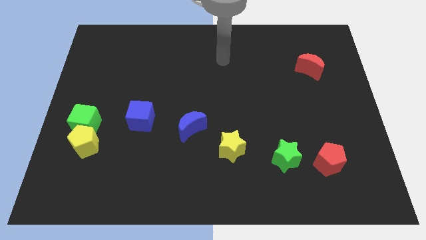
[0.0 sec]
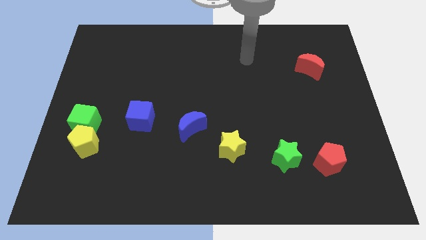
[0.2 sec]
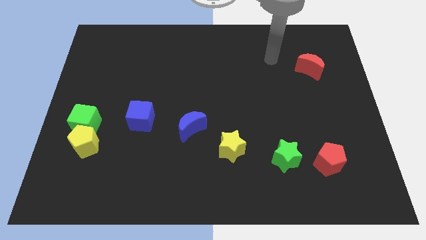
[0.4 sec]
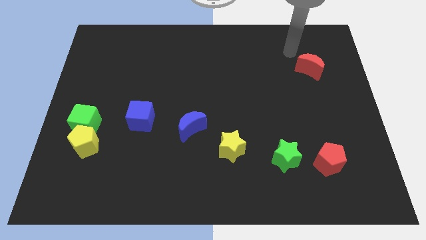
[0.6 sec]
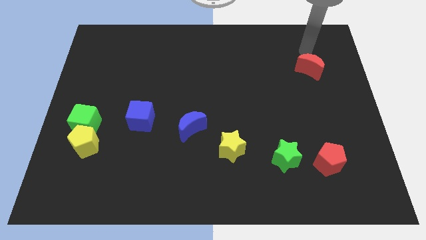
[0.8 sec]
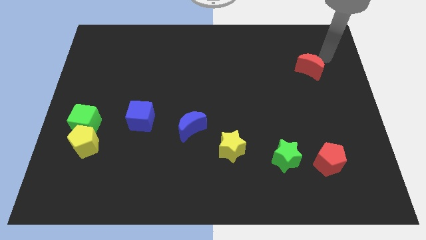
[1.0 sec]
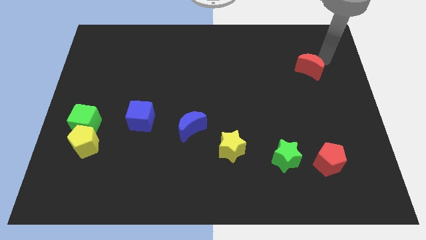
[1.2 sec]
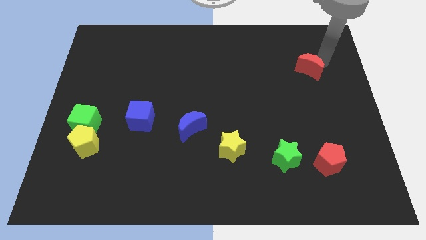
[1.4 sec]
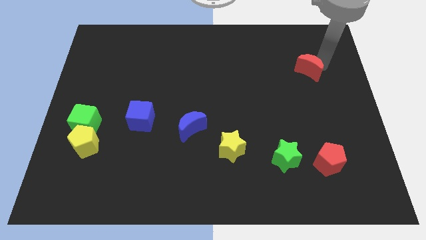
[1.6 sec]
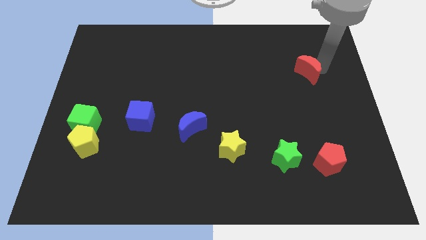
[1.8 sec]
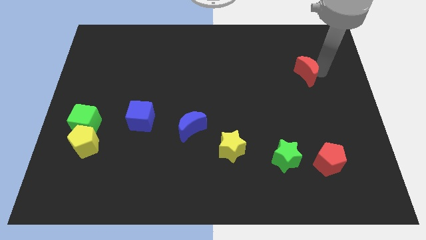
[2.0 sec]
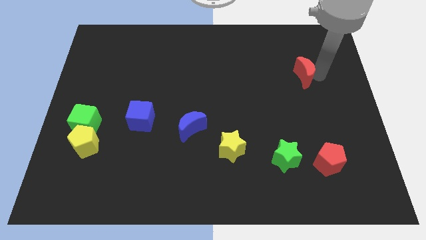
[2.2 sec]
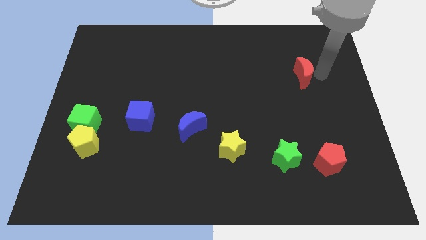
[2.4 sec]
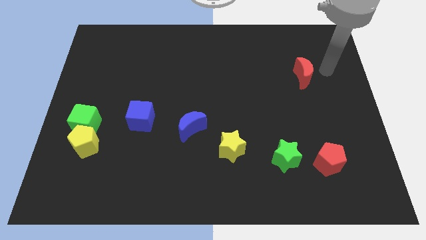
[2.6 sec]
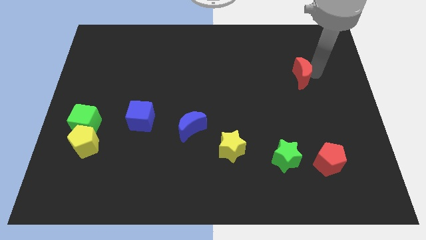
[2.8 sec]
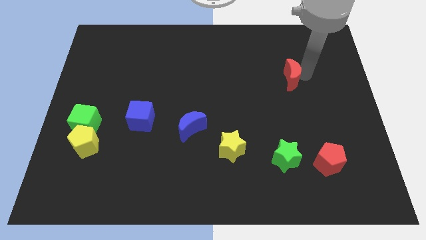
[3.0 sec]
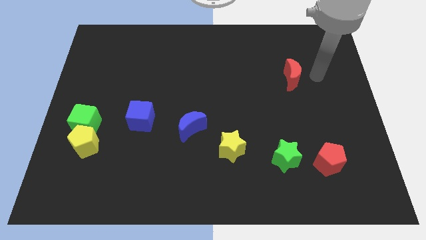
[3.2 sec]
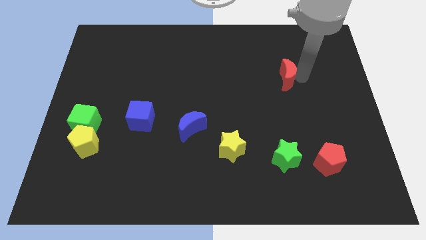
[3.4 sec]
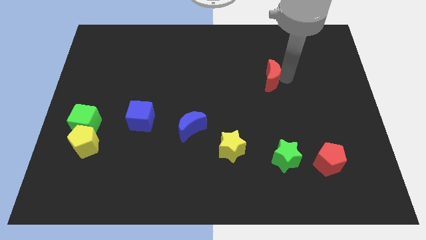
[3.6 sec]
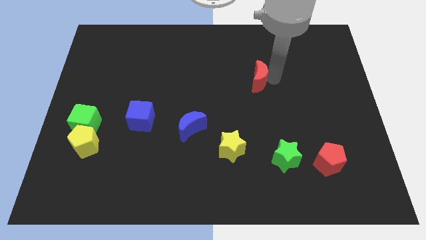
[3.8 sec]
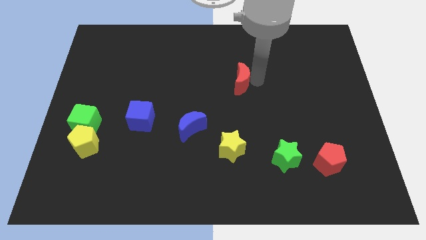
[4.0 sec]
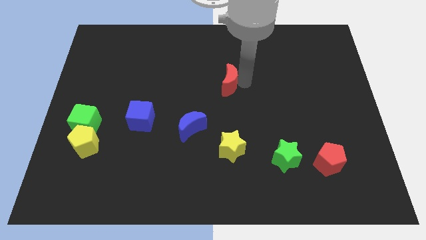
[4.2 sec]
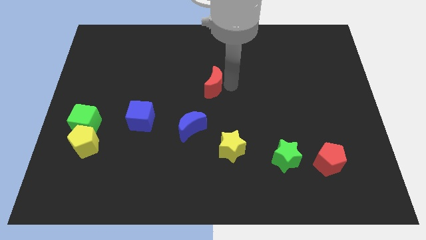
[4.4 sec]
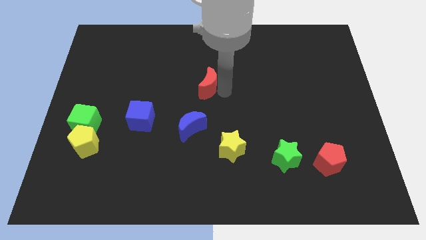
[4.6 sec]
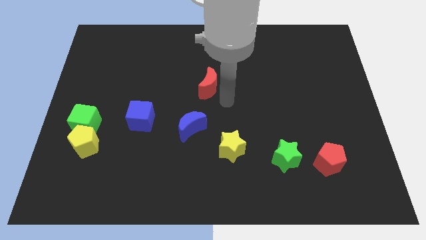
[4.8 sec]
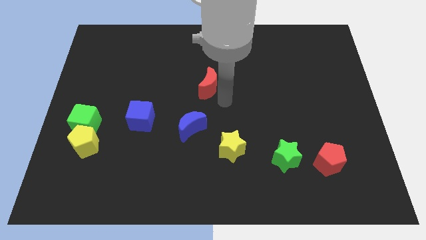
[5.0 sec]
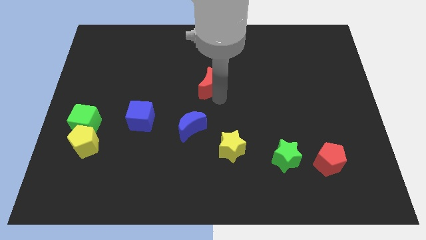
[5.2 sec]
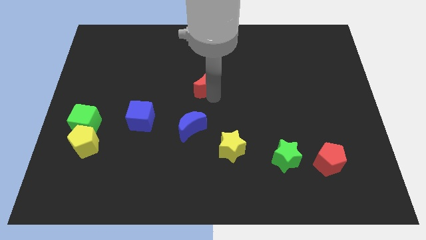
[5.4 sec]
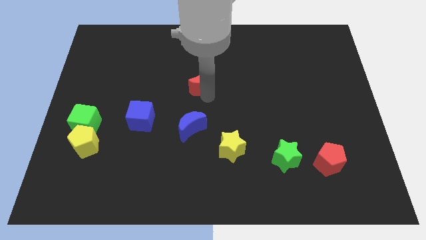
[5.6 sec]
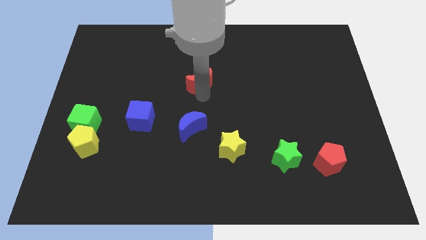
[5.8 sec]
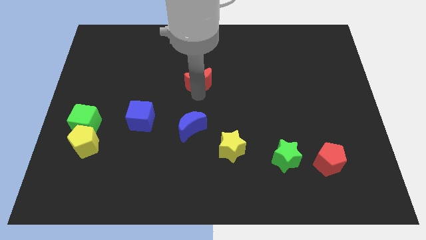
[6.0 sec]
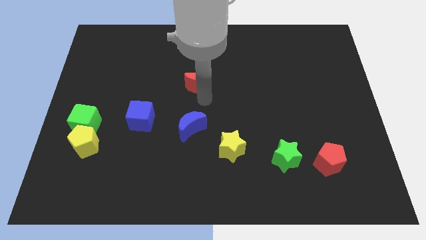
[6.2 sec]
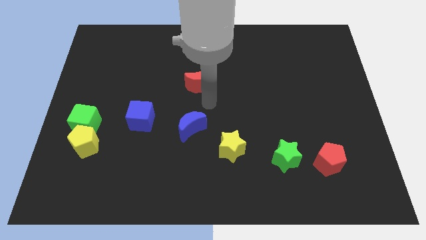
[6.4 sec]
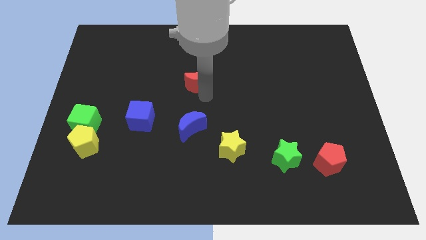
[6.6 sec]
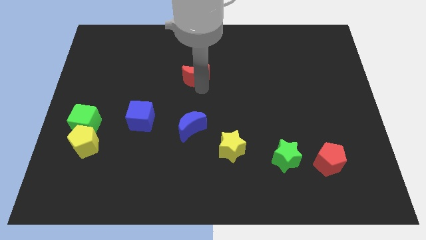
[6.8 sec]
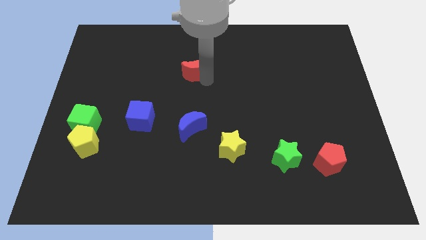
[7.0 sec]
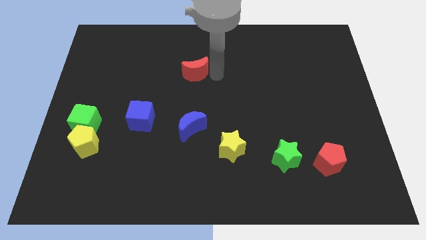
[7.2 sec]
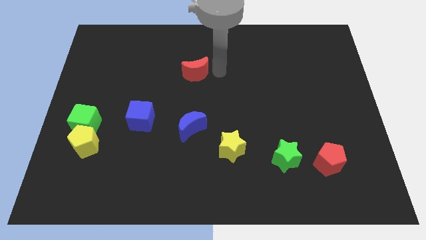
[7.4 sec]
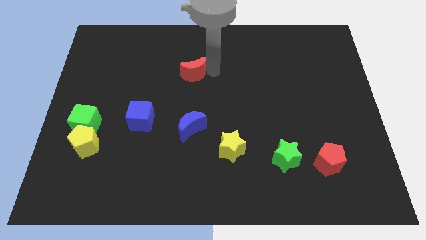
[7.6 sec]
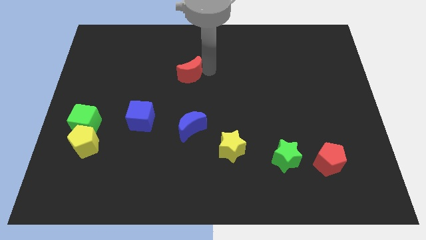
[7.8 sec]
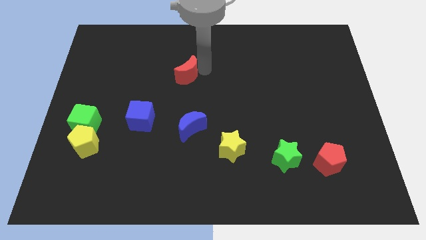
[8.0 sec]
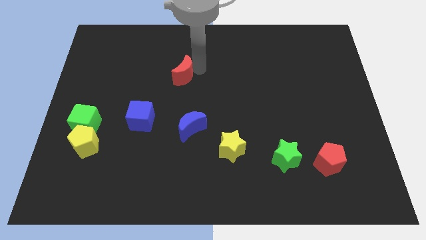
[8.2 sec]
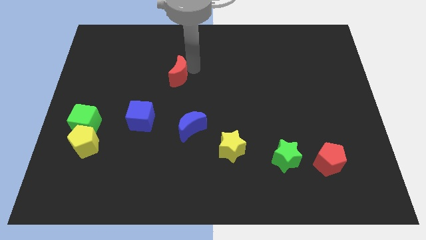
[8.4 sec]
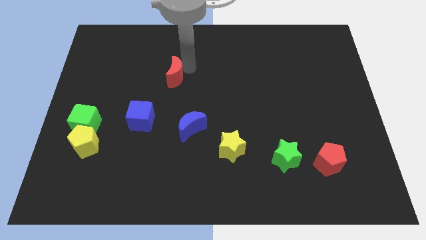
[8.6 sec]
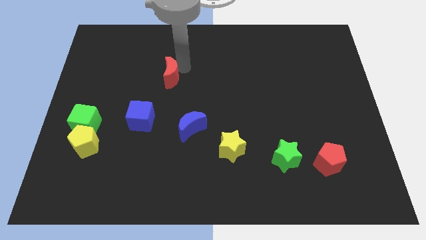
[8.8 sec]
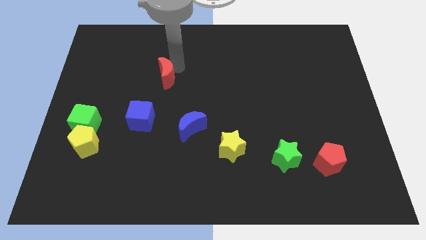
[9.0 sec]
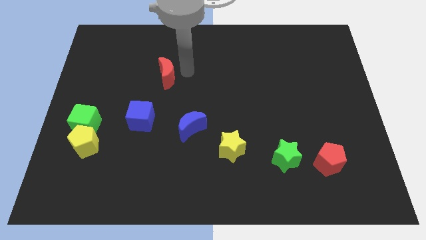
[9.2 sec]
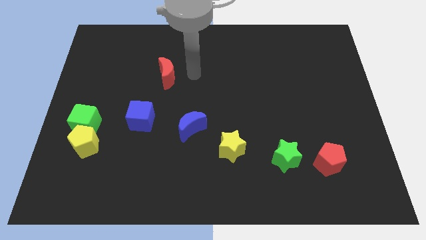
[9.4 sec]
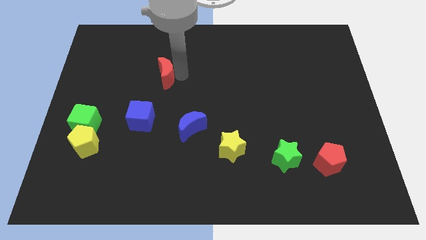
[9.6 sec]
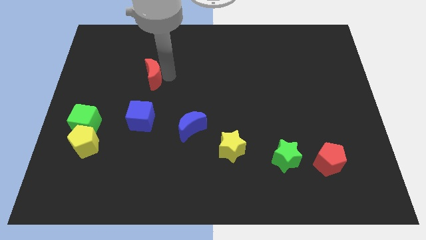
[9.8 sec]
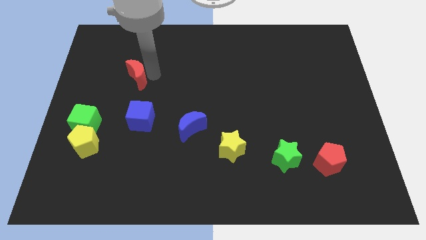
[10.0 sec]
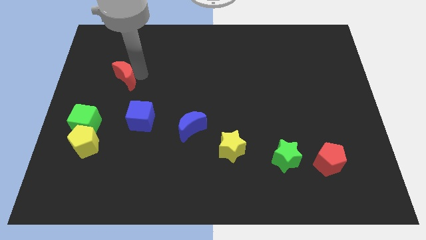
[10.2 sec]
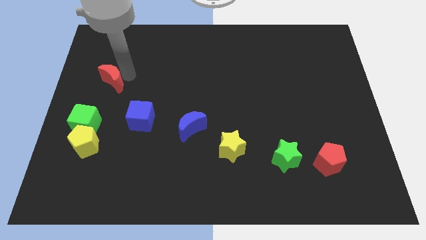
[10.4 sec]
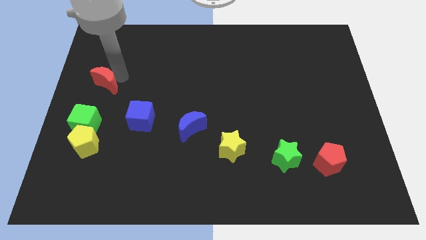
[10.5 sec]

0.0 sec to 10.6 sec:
move the red moon to the center left
